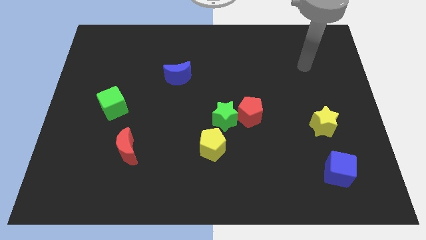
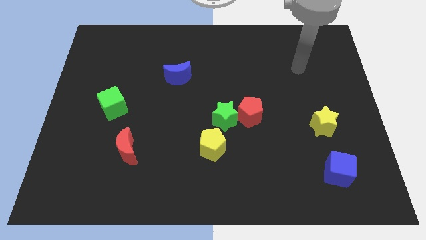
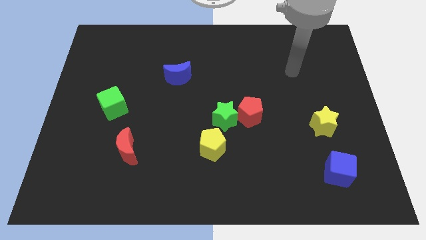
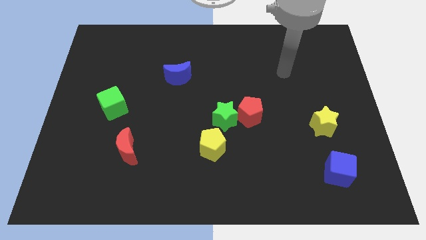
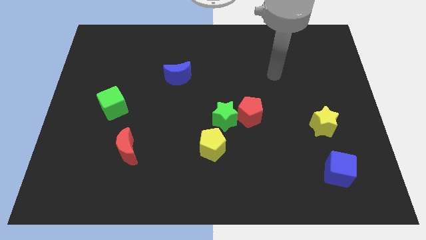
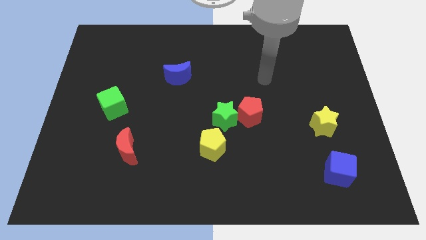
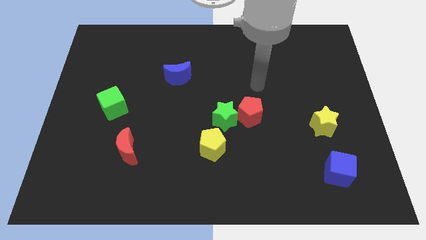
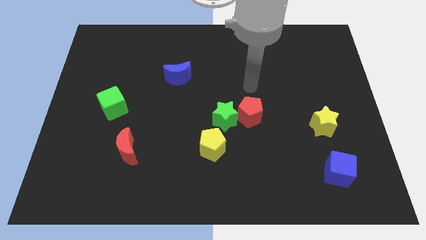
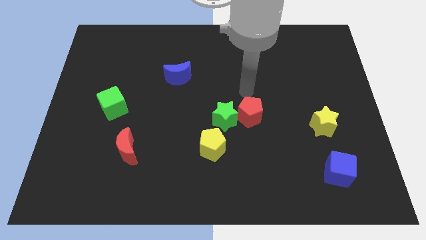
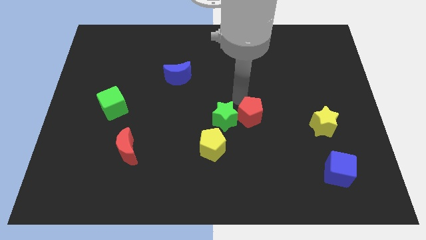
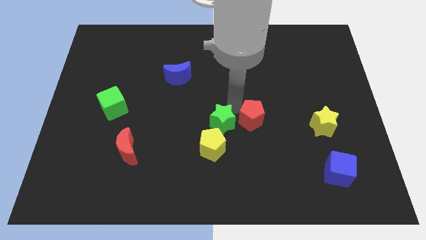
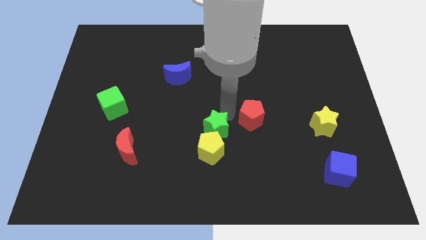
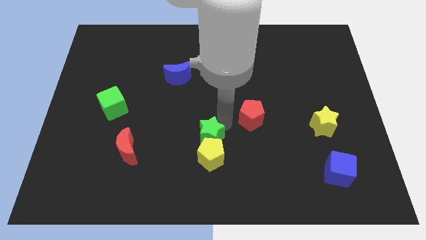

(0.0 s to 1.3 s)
pull the red pentagon apart from the green star

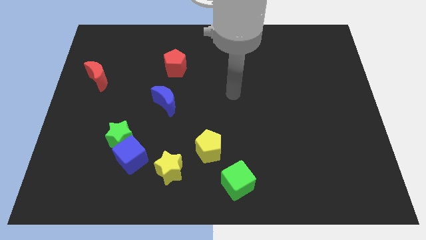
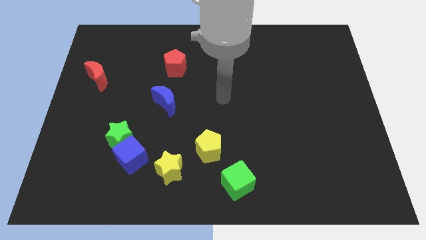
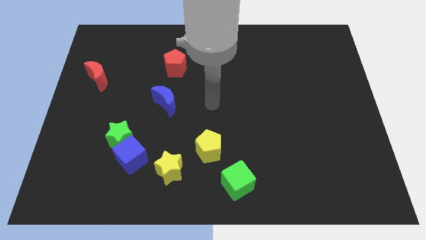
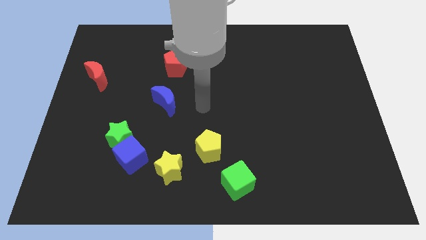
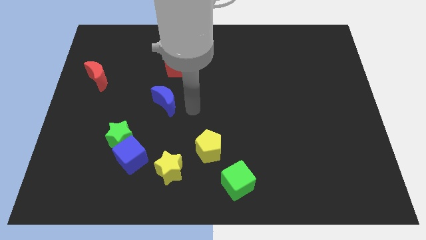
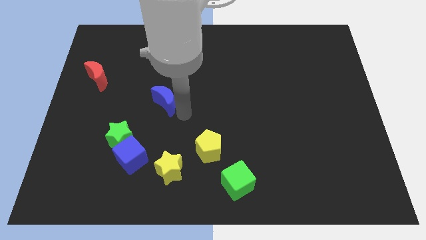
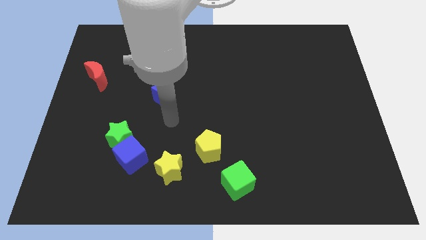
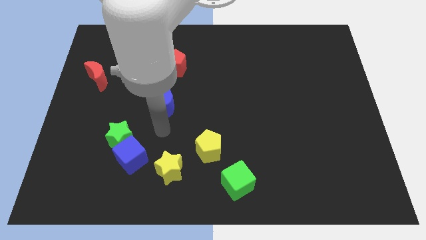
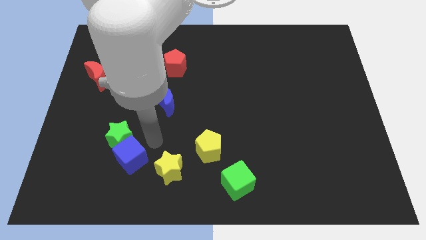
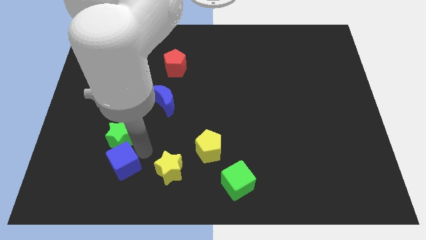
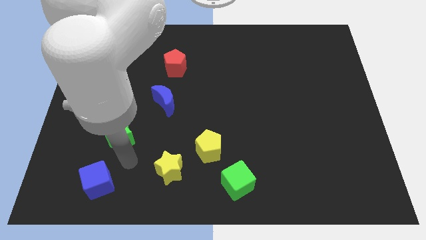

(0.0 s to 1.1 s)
pull the green star apart from the blue cube

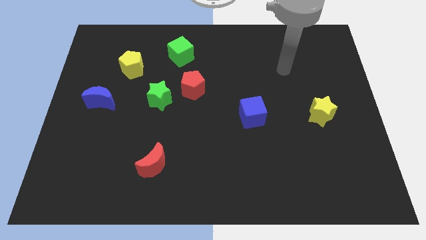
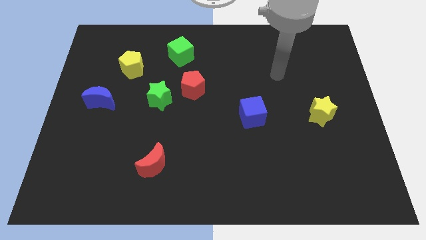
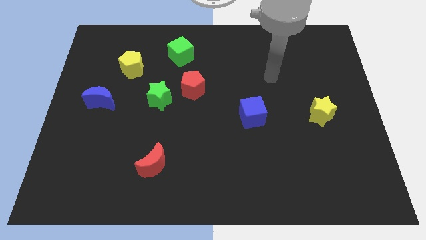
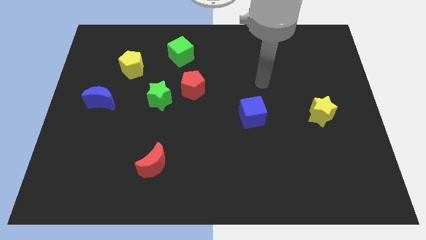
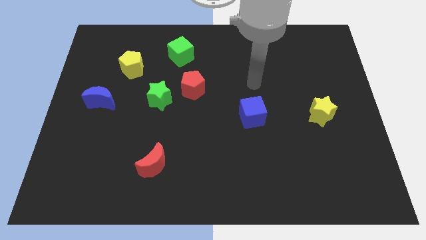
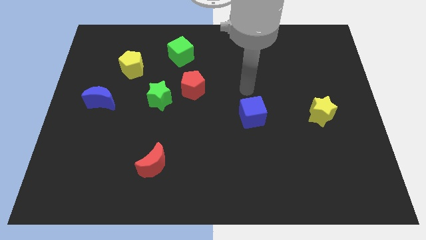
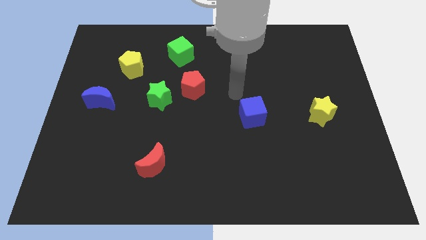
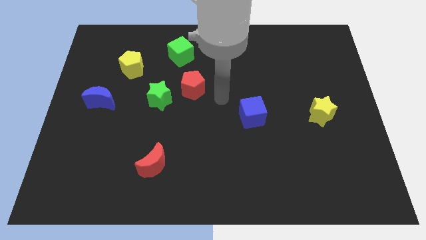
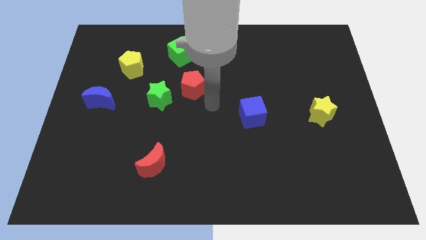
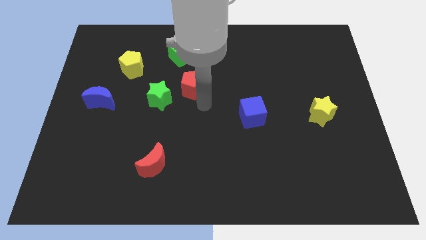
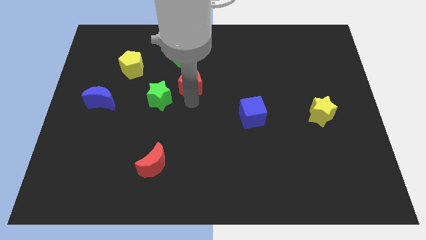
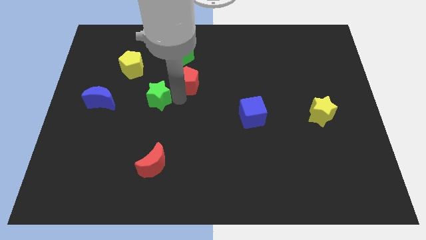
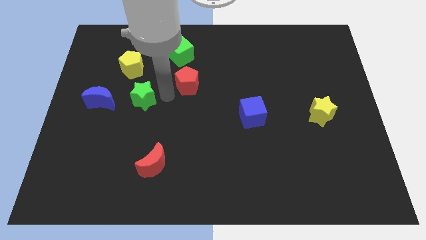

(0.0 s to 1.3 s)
move the red pentagon away from the green star

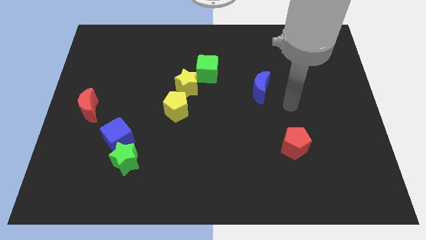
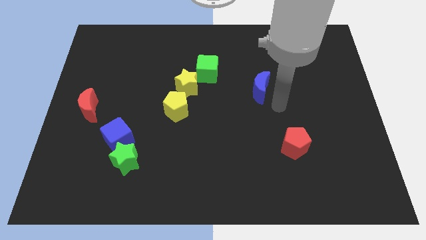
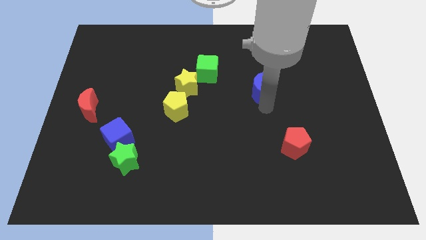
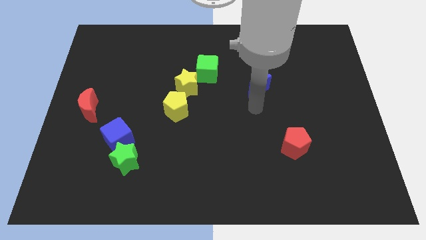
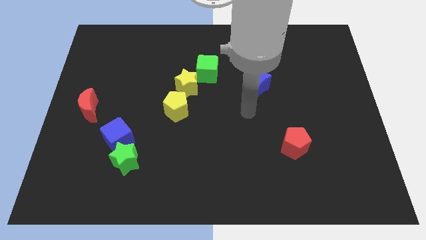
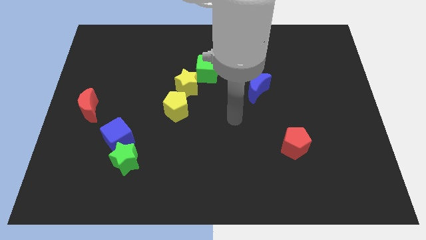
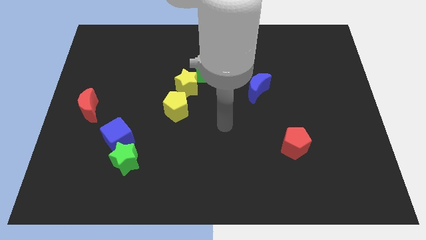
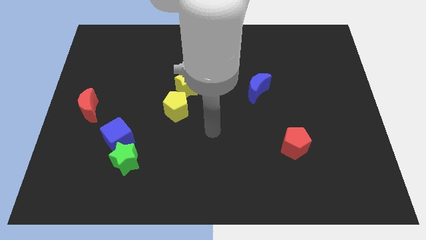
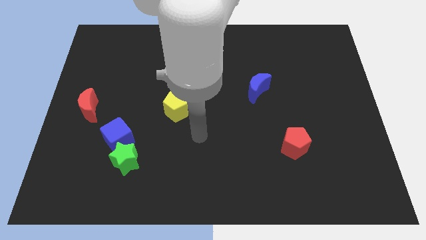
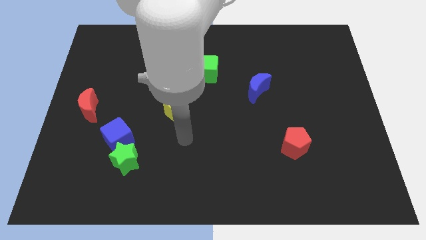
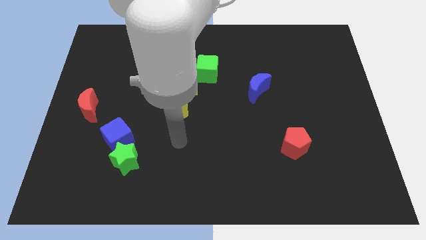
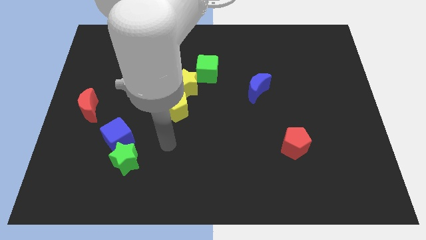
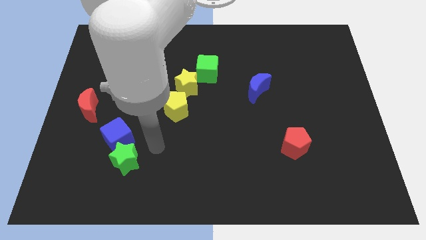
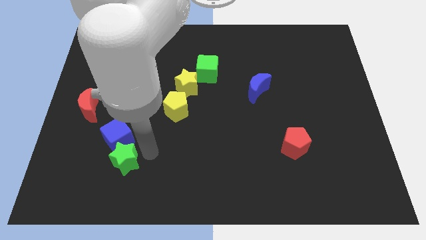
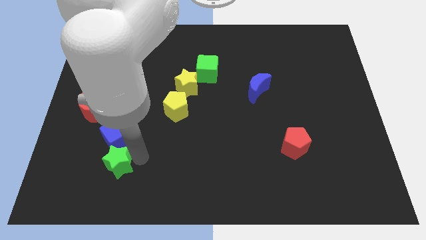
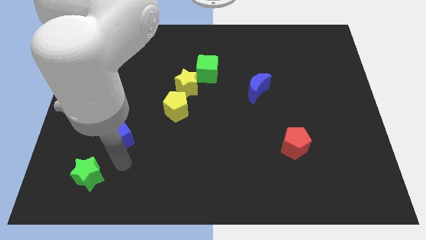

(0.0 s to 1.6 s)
separate the blue cube from the green star

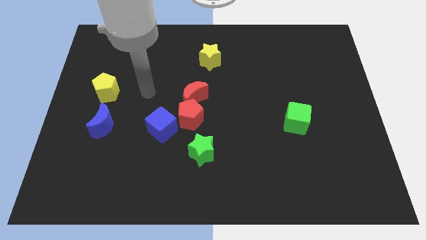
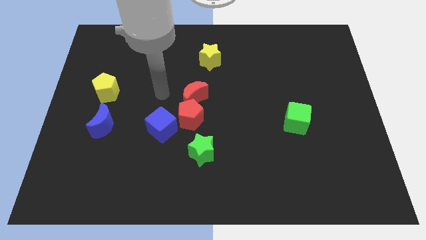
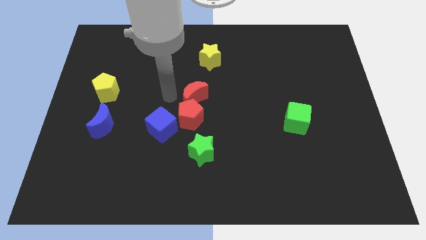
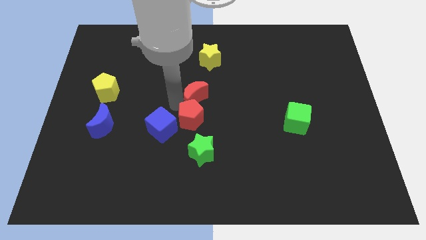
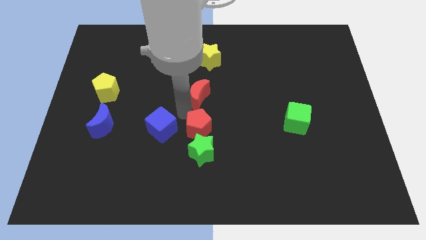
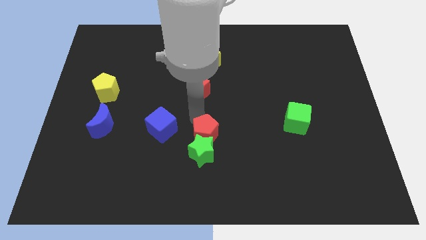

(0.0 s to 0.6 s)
pull the red moon apart from the red pentagon

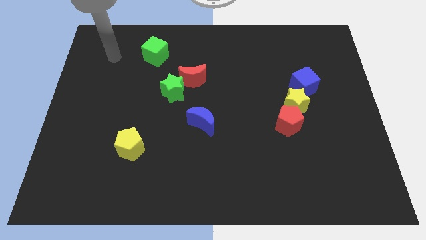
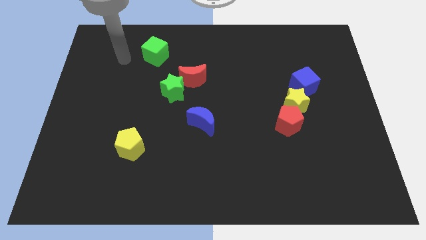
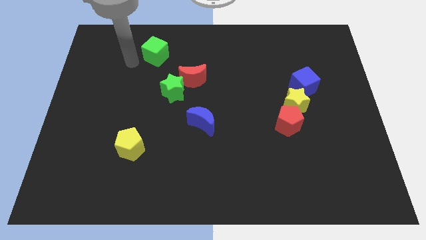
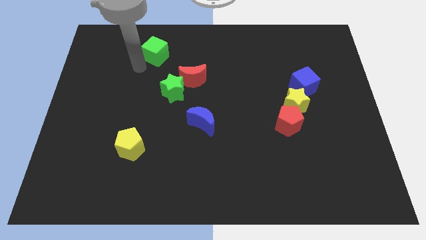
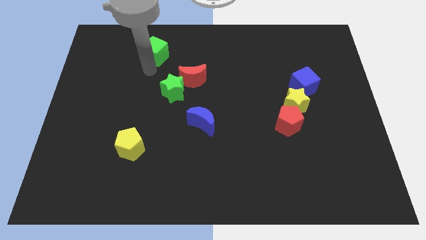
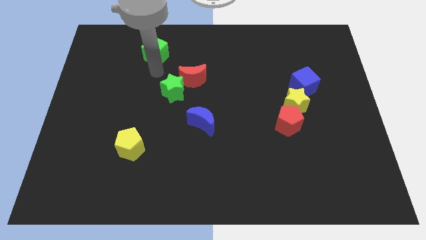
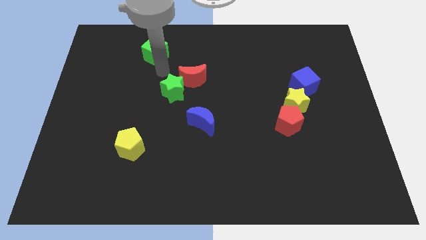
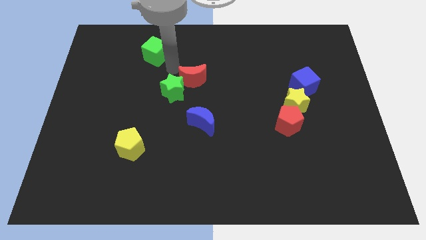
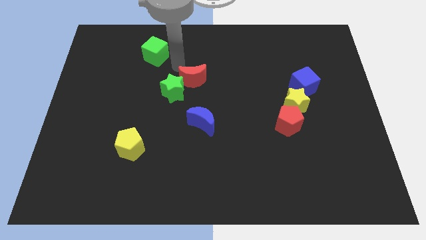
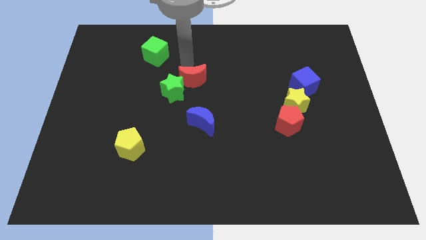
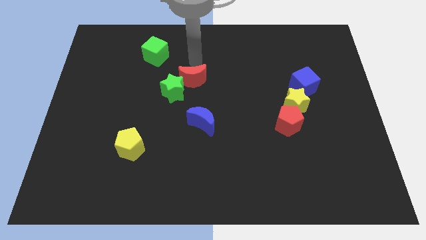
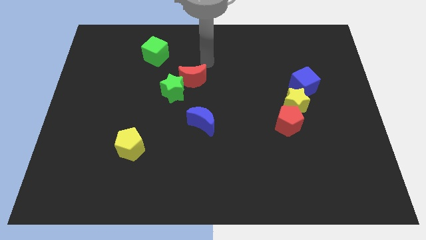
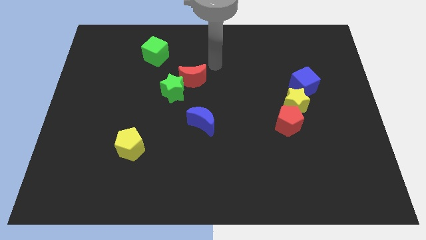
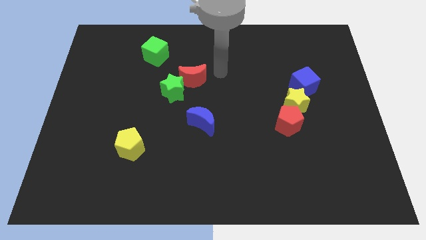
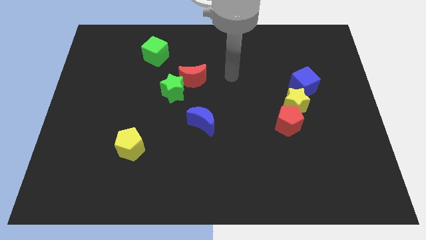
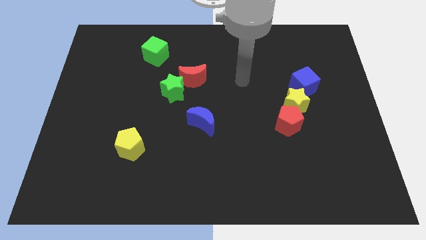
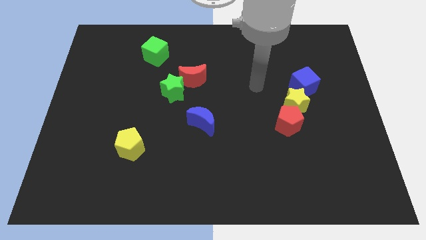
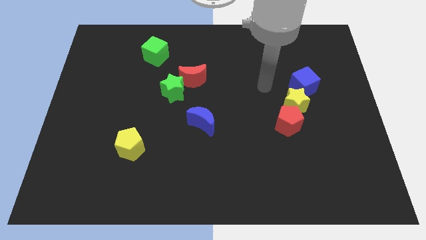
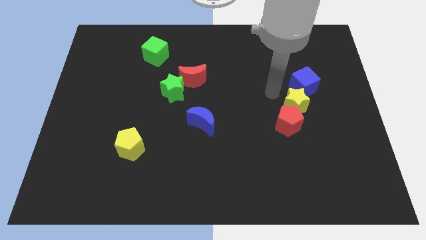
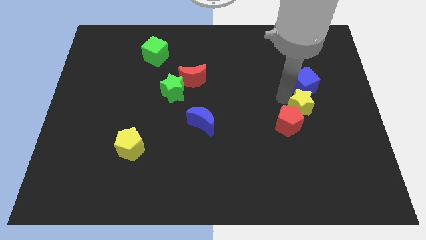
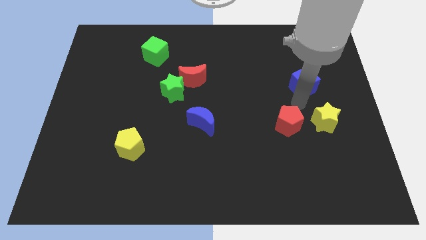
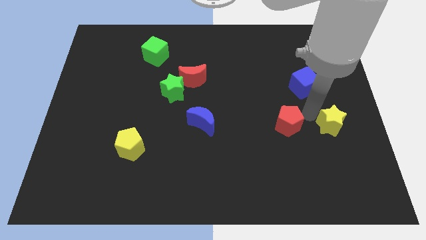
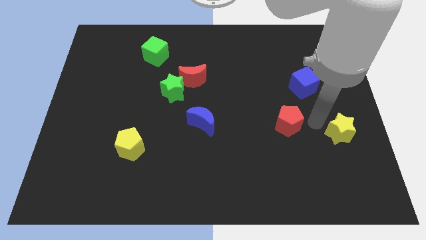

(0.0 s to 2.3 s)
separate the red pentagon from the yellow star

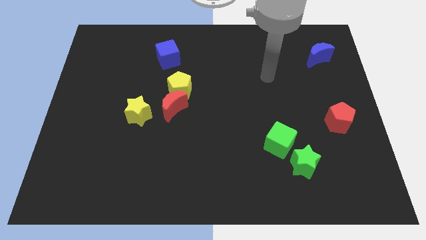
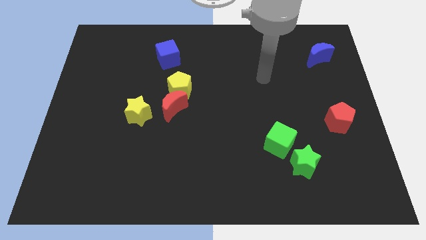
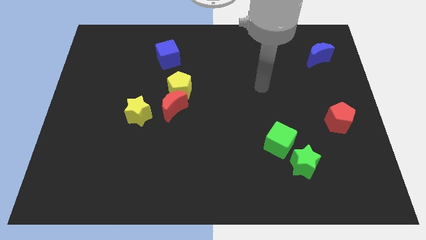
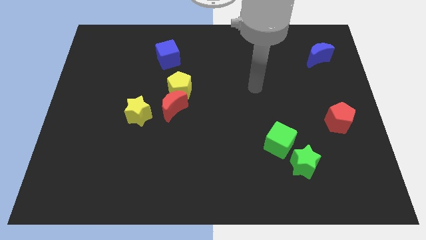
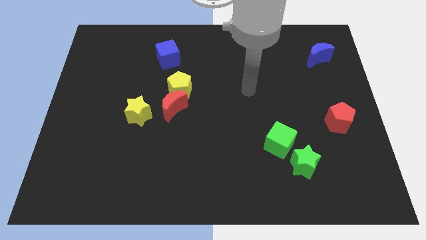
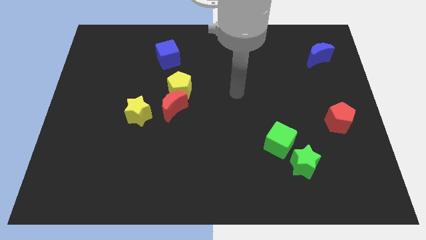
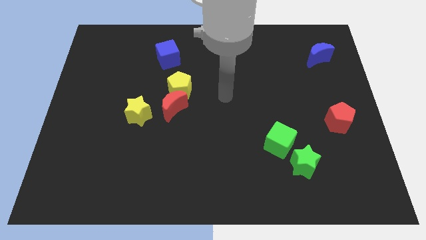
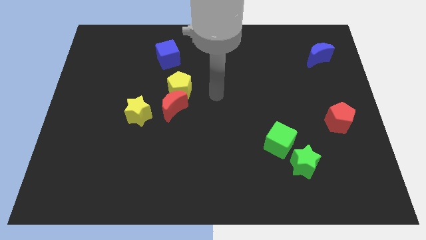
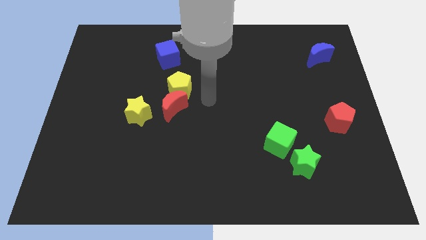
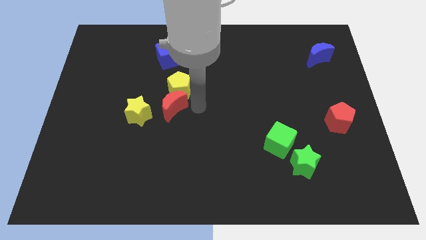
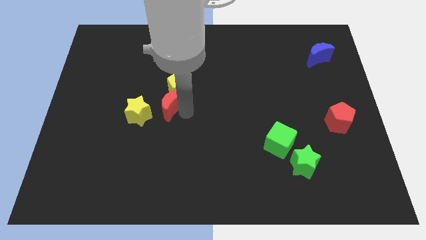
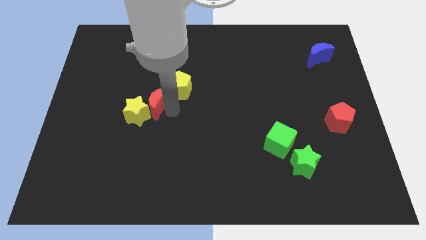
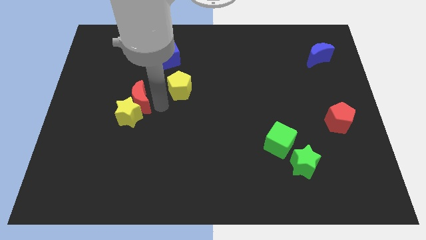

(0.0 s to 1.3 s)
move the yellow pentagon away from the red moon

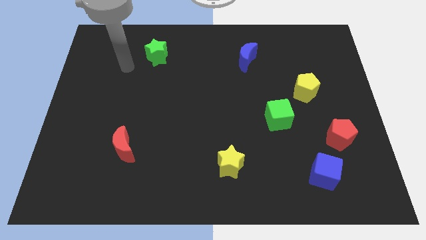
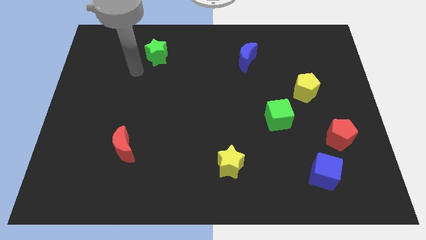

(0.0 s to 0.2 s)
separate the red pentagon from the blue cube
